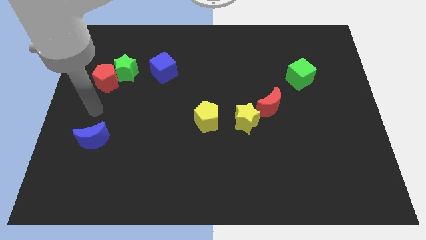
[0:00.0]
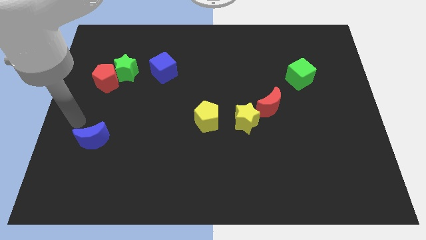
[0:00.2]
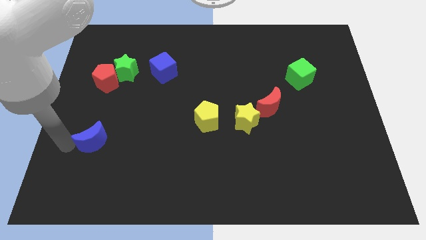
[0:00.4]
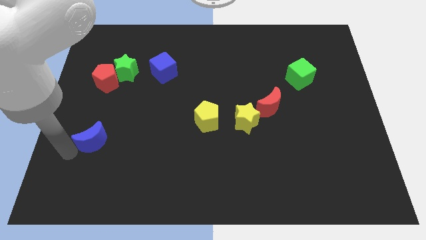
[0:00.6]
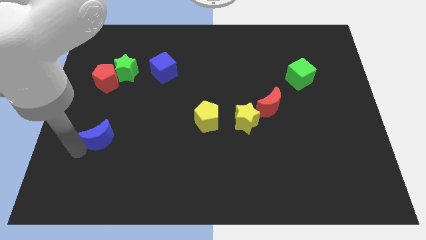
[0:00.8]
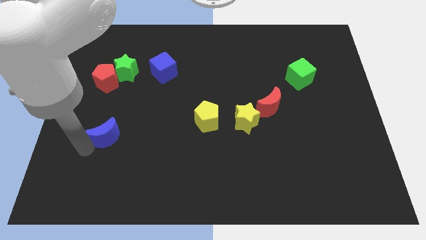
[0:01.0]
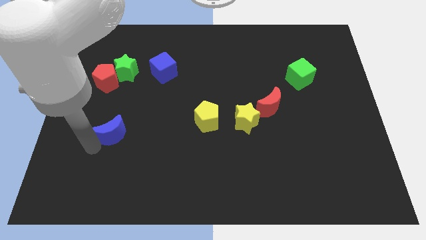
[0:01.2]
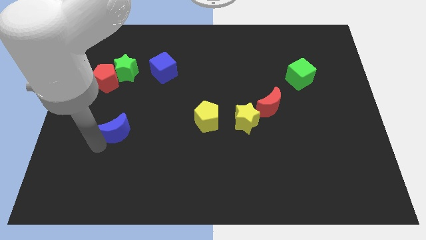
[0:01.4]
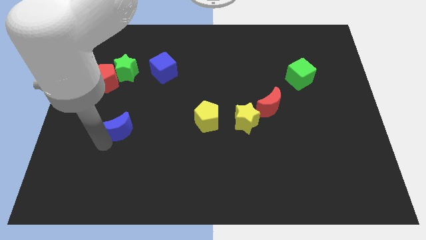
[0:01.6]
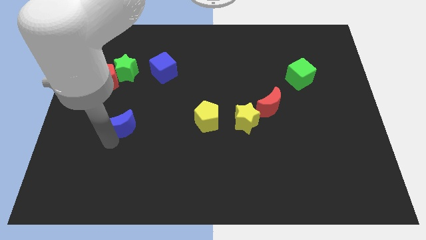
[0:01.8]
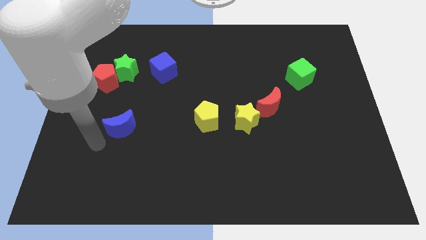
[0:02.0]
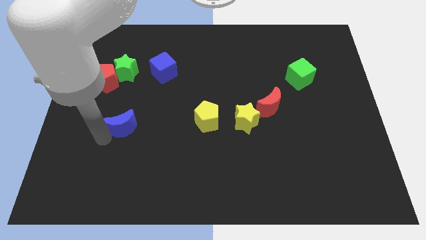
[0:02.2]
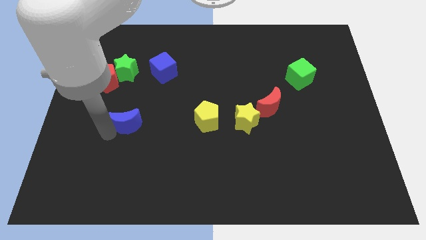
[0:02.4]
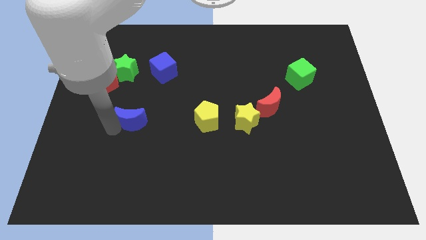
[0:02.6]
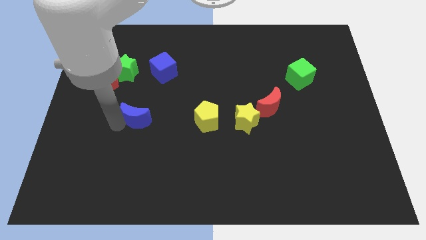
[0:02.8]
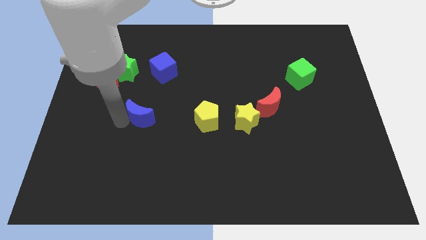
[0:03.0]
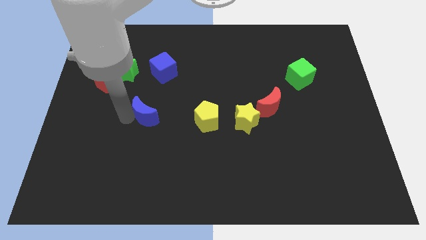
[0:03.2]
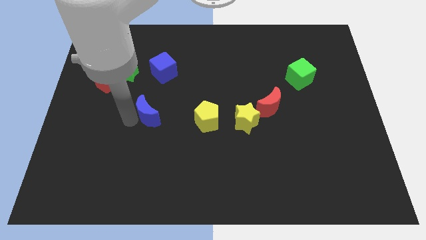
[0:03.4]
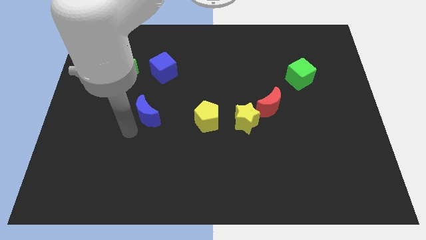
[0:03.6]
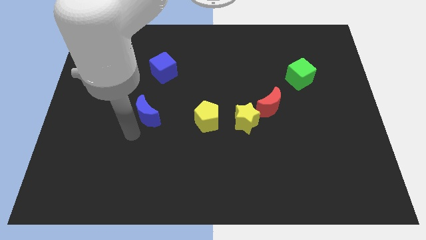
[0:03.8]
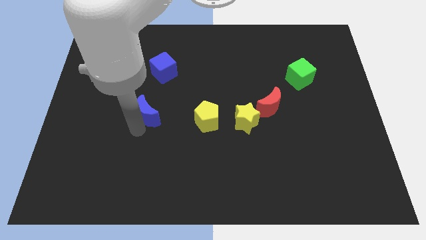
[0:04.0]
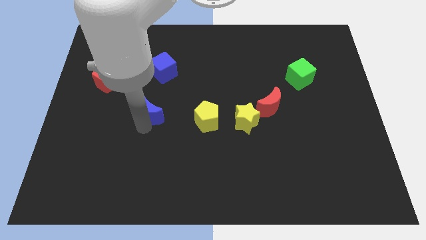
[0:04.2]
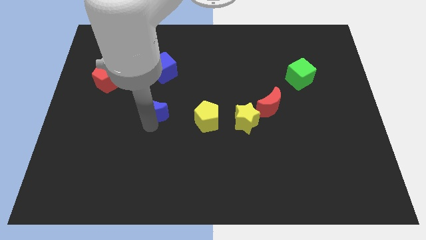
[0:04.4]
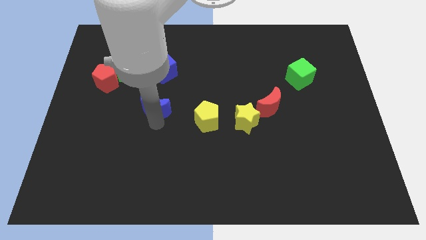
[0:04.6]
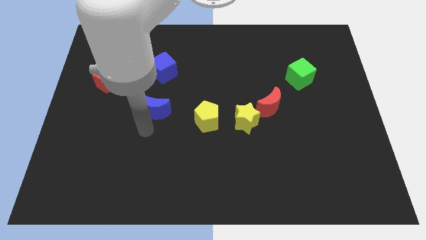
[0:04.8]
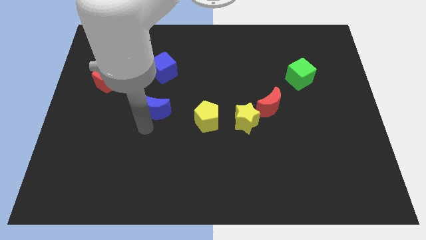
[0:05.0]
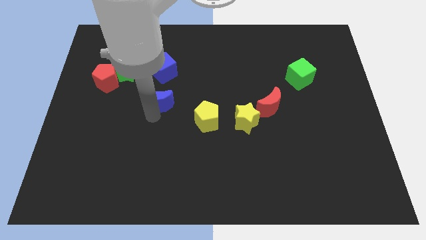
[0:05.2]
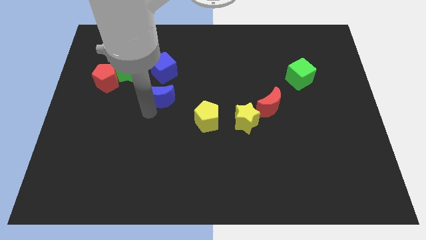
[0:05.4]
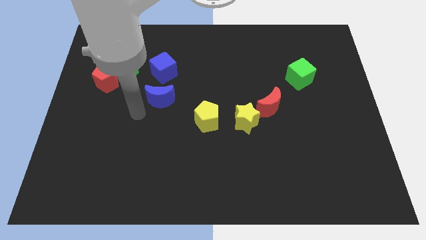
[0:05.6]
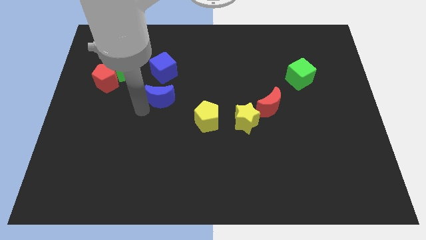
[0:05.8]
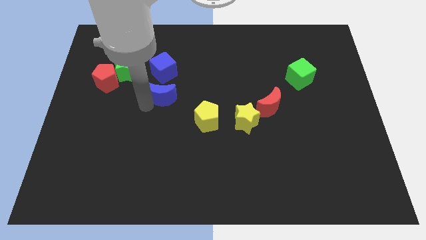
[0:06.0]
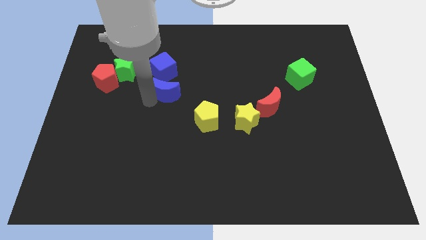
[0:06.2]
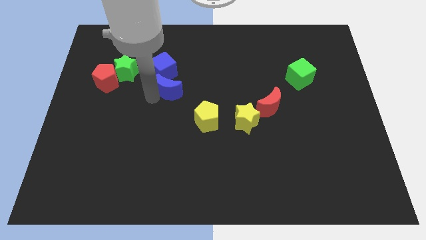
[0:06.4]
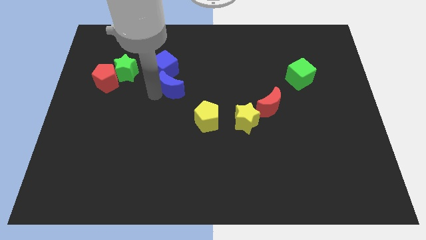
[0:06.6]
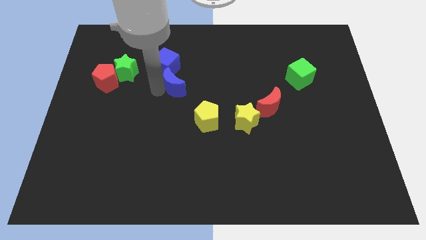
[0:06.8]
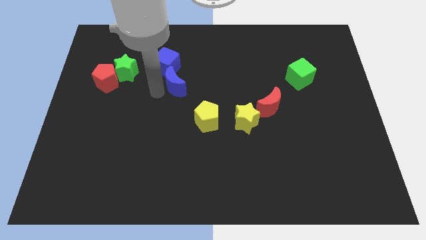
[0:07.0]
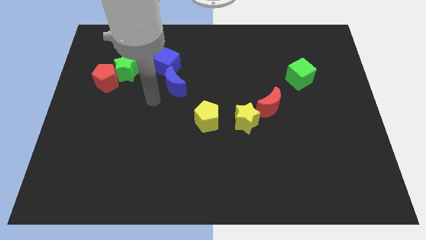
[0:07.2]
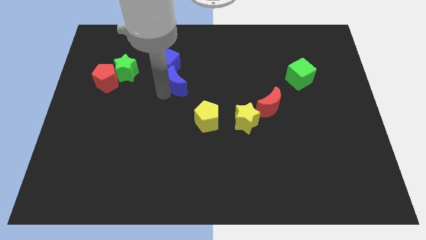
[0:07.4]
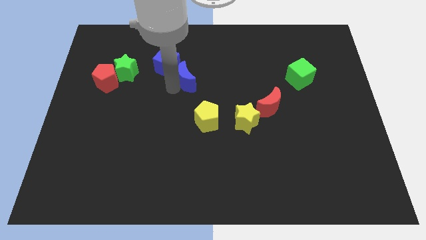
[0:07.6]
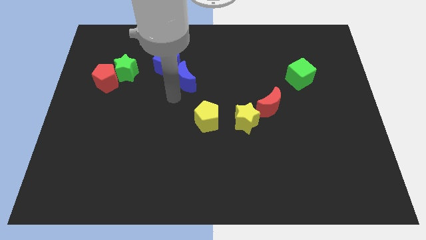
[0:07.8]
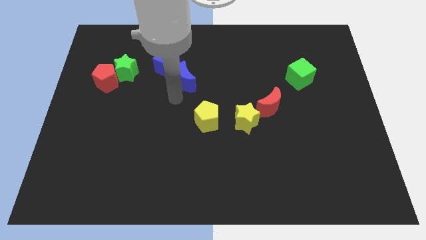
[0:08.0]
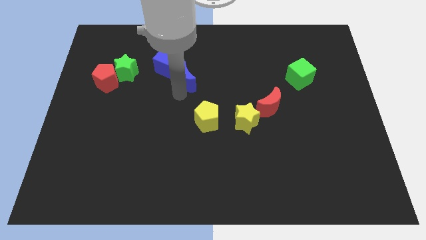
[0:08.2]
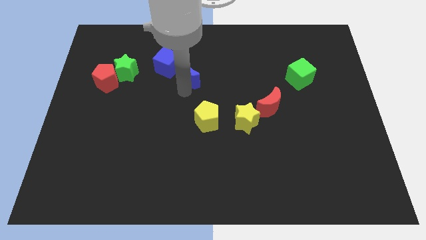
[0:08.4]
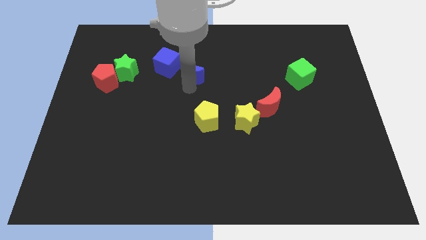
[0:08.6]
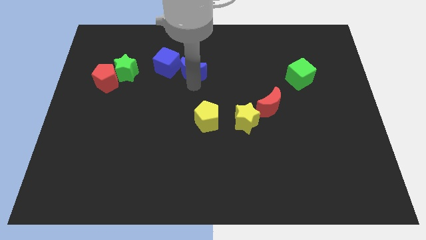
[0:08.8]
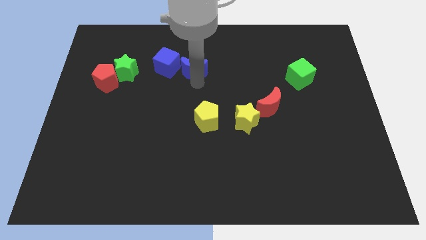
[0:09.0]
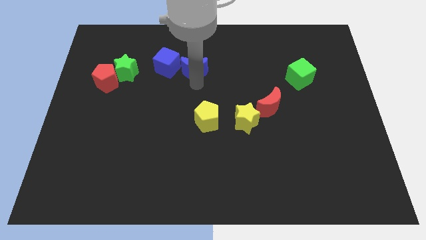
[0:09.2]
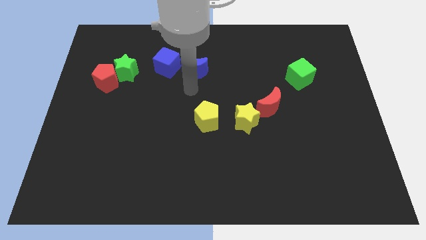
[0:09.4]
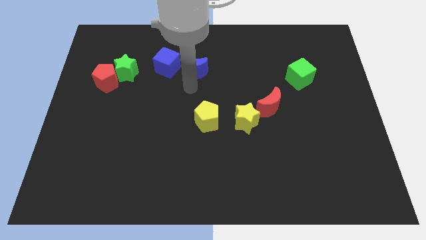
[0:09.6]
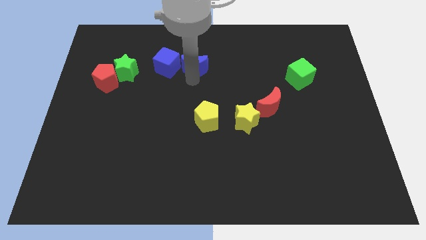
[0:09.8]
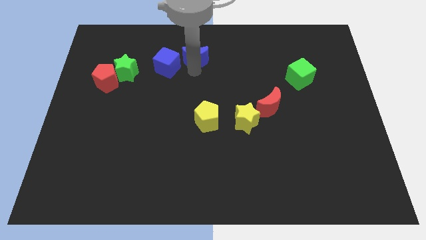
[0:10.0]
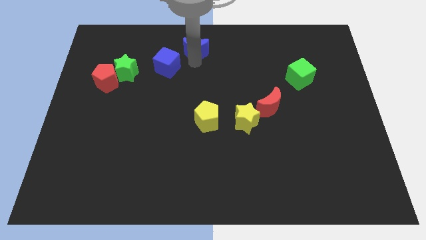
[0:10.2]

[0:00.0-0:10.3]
slide the blue moon to the top side
